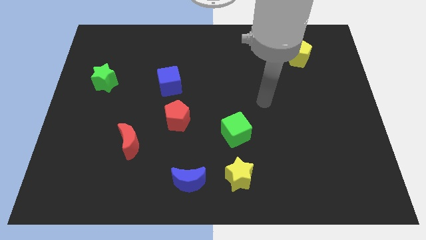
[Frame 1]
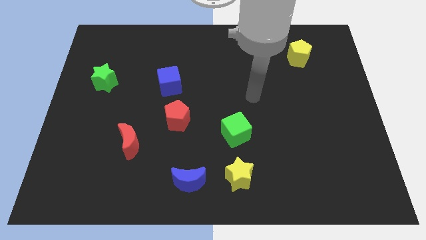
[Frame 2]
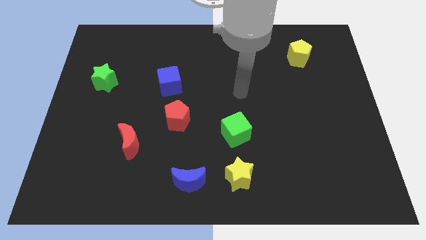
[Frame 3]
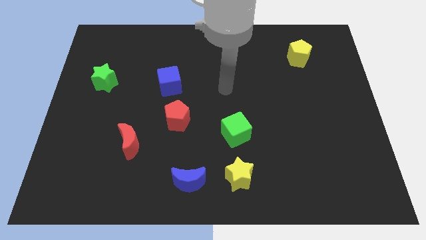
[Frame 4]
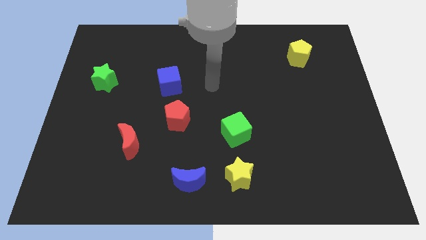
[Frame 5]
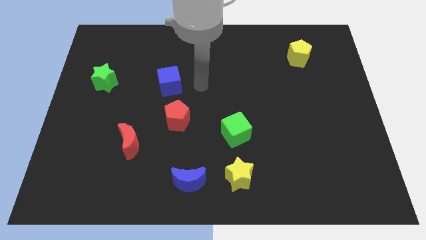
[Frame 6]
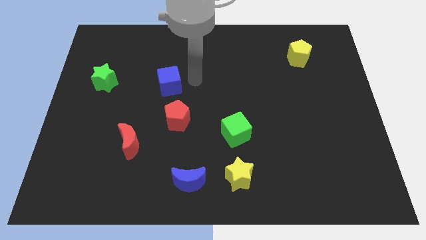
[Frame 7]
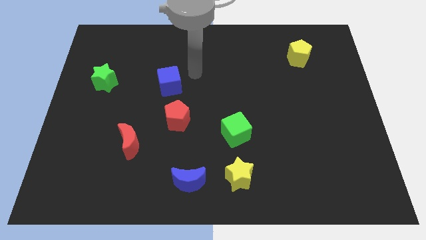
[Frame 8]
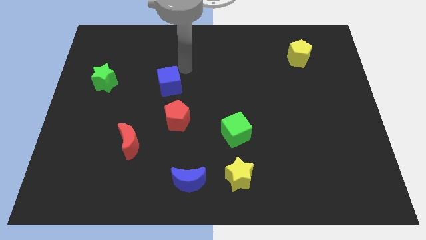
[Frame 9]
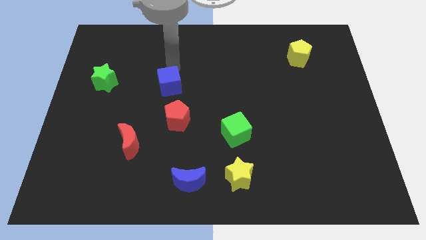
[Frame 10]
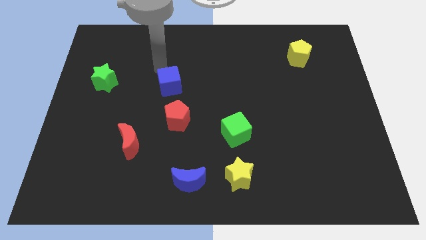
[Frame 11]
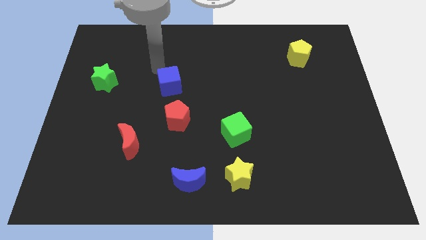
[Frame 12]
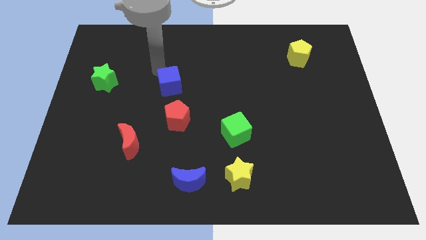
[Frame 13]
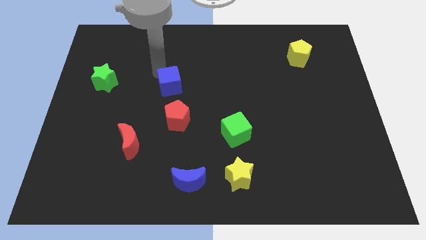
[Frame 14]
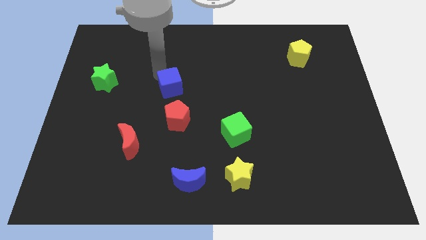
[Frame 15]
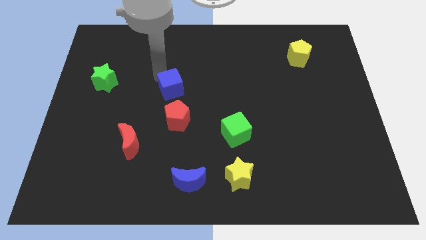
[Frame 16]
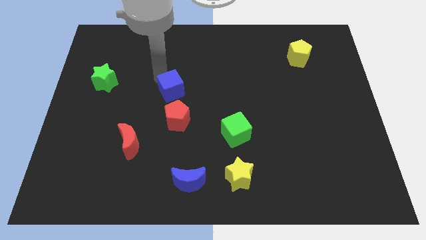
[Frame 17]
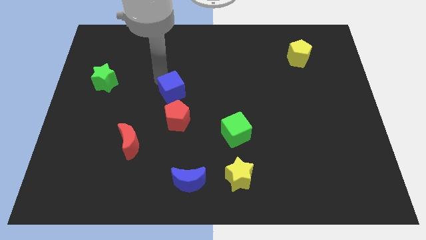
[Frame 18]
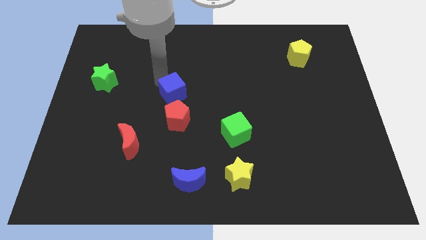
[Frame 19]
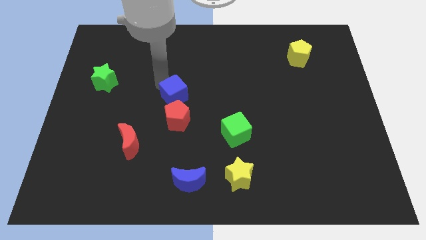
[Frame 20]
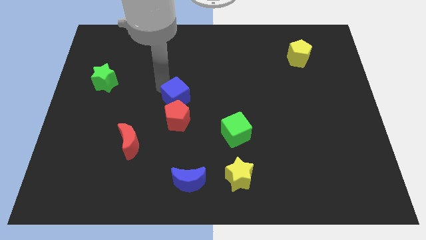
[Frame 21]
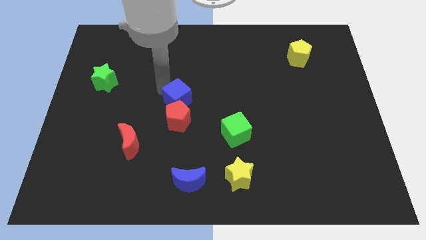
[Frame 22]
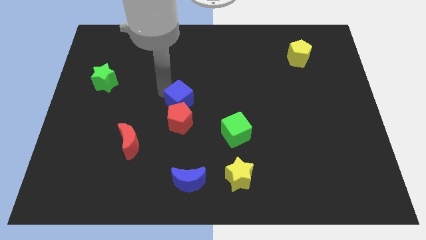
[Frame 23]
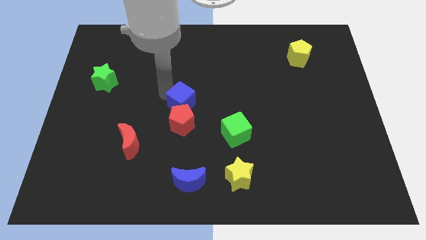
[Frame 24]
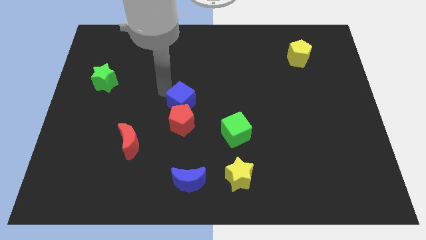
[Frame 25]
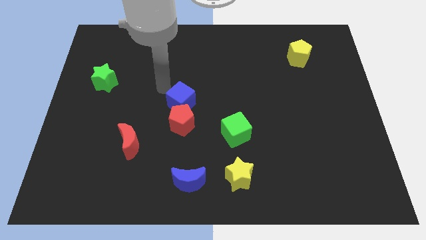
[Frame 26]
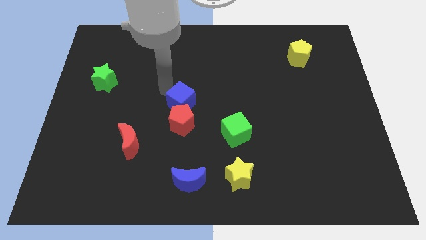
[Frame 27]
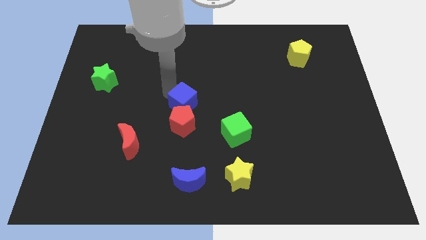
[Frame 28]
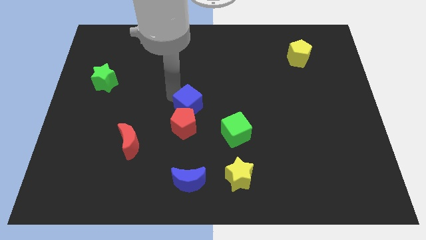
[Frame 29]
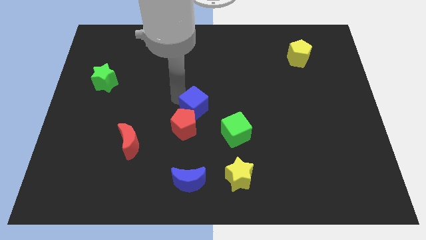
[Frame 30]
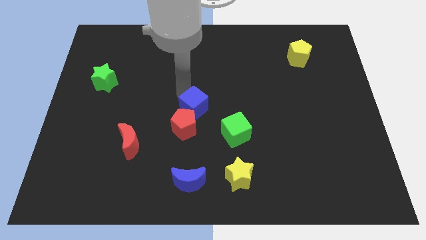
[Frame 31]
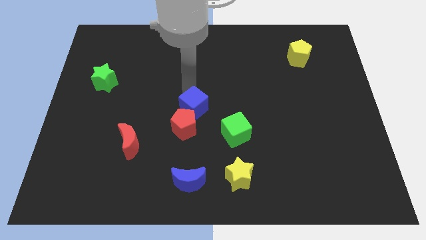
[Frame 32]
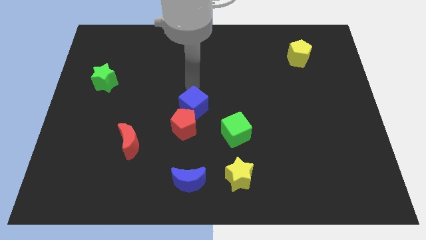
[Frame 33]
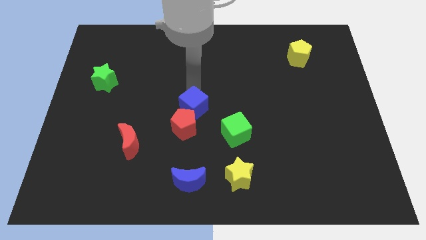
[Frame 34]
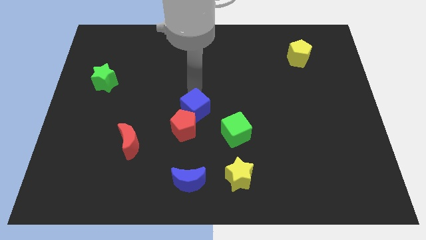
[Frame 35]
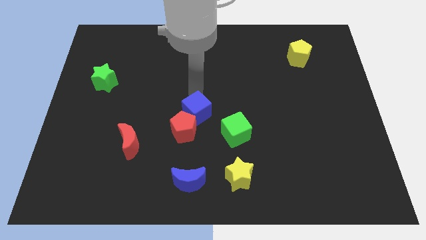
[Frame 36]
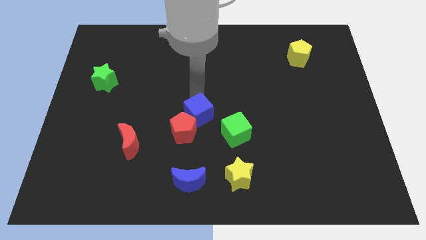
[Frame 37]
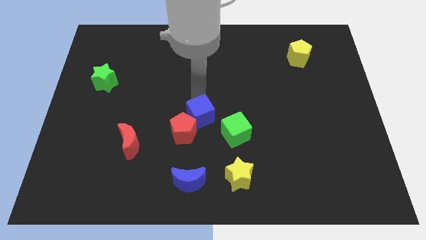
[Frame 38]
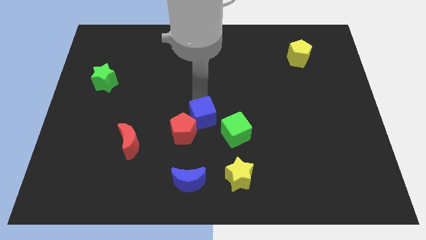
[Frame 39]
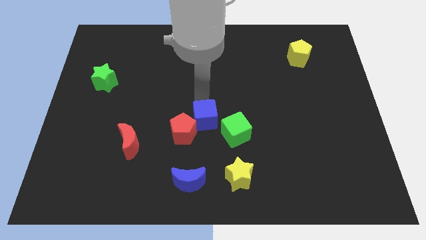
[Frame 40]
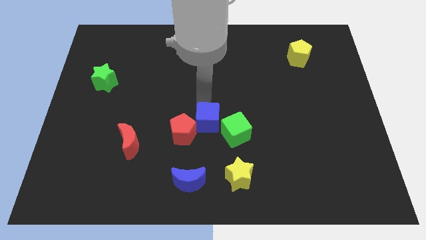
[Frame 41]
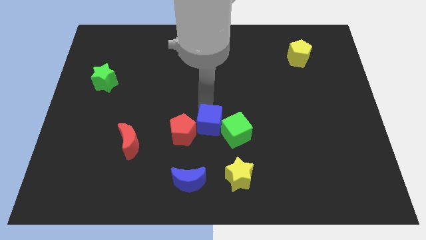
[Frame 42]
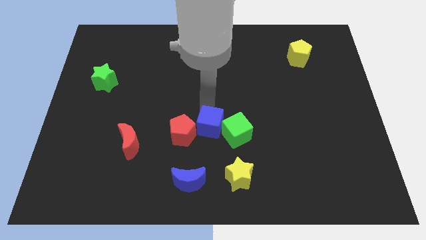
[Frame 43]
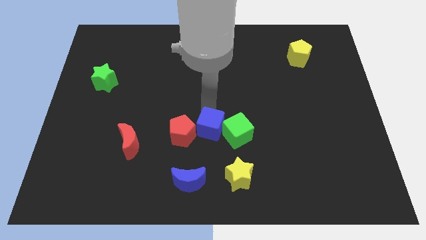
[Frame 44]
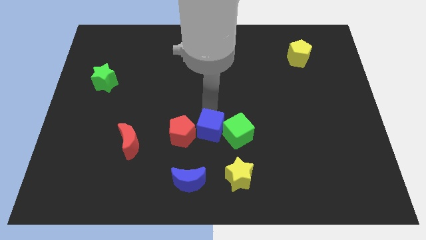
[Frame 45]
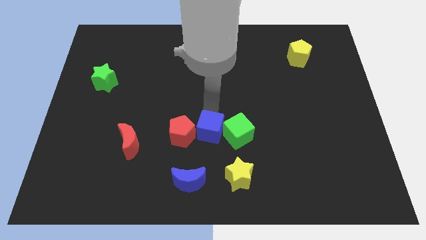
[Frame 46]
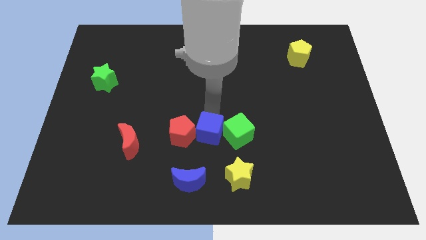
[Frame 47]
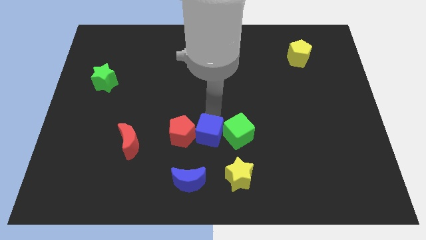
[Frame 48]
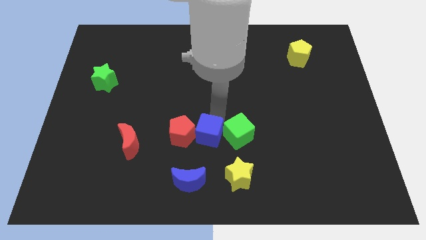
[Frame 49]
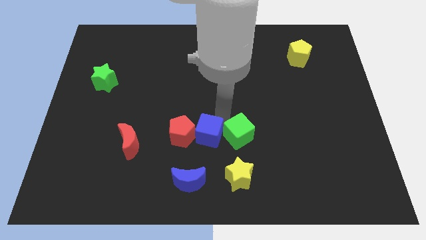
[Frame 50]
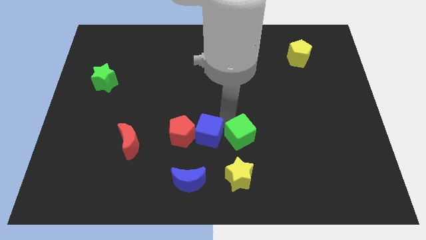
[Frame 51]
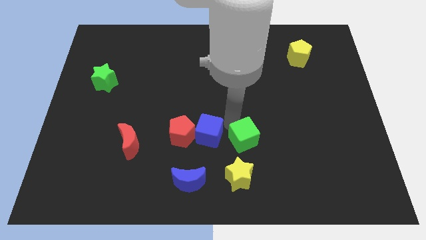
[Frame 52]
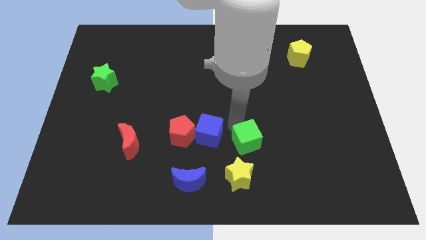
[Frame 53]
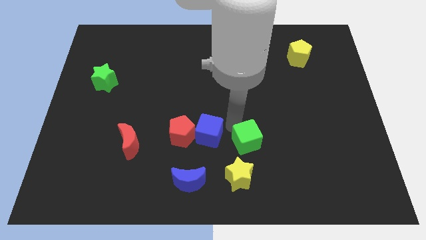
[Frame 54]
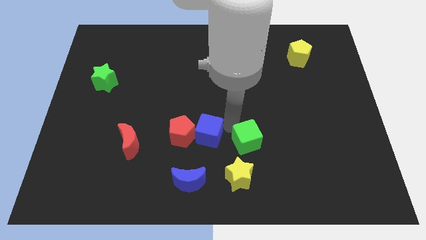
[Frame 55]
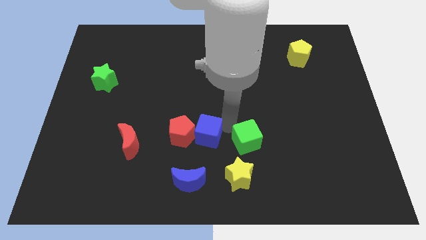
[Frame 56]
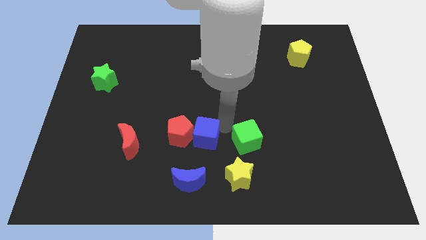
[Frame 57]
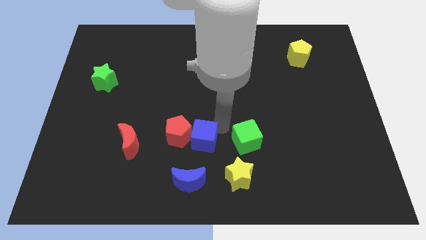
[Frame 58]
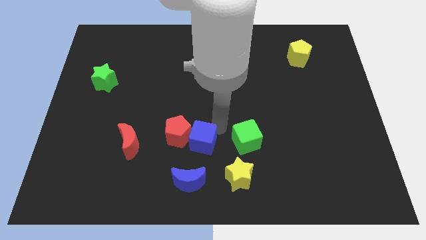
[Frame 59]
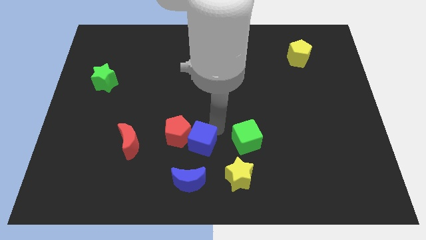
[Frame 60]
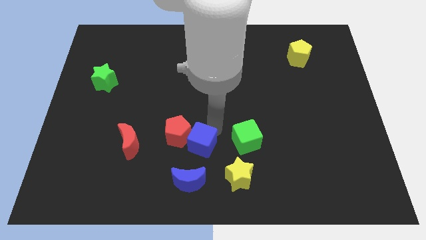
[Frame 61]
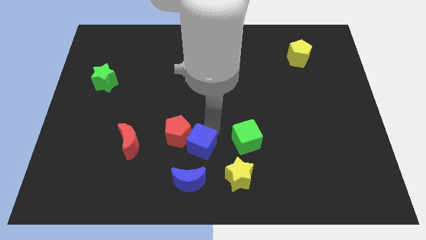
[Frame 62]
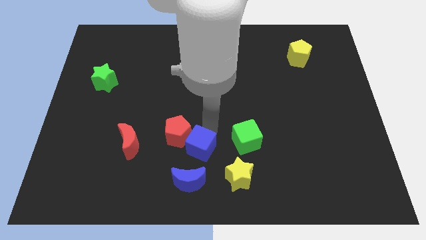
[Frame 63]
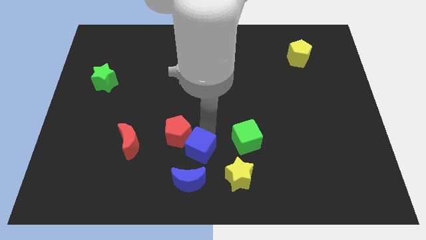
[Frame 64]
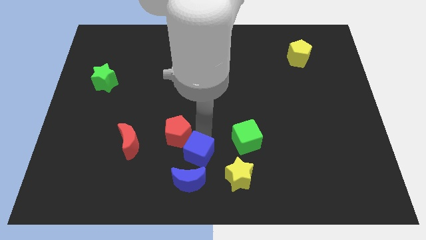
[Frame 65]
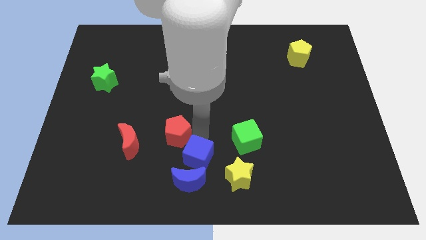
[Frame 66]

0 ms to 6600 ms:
slide the blue cube to the bottom

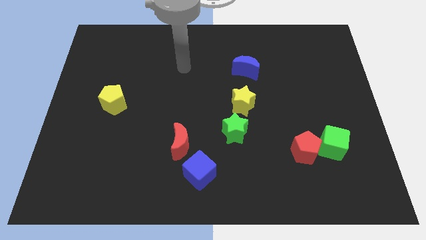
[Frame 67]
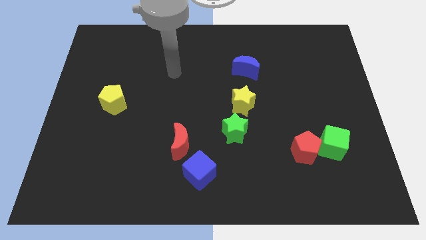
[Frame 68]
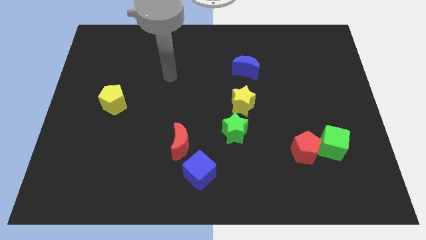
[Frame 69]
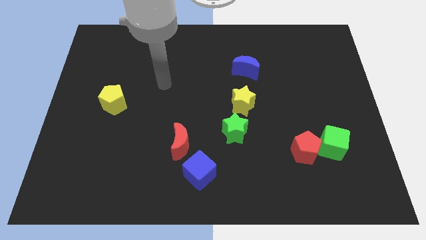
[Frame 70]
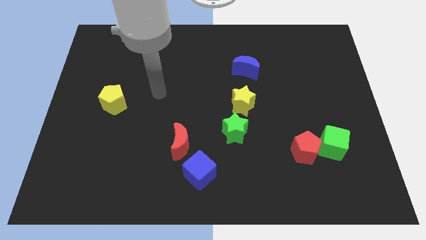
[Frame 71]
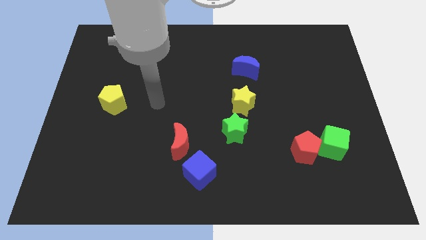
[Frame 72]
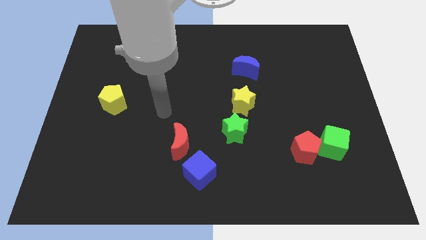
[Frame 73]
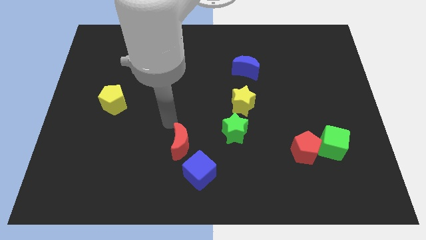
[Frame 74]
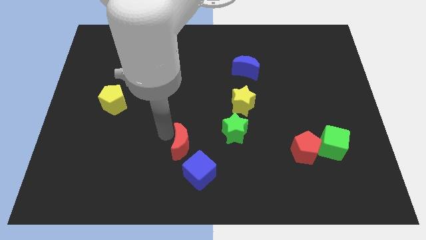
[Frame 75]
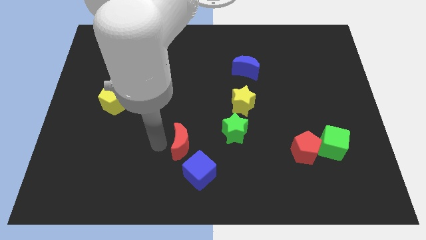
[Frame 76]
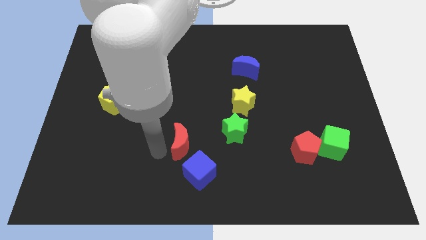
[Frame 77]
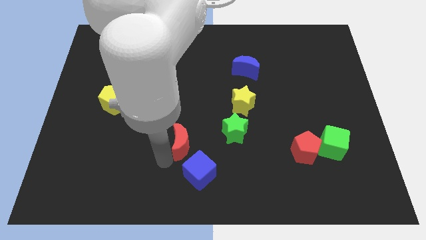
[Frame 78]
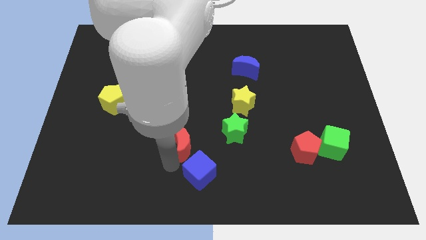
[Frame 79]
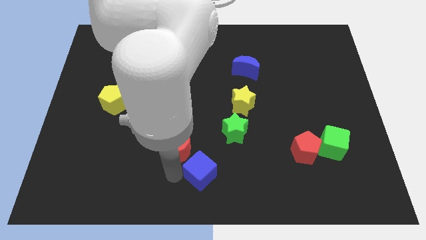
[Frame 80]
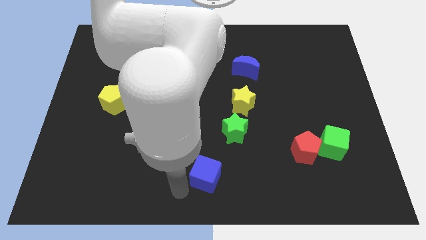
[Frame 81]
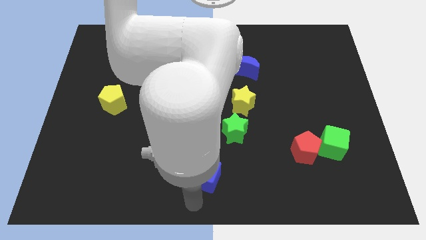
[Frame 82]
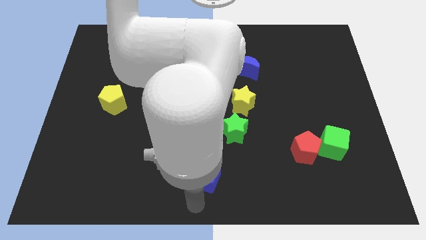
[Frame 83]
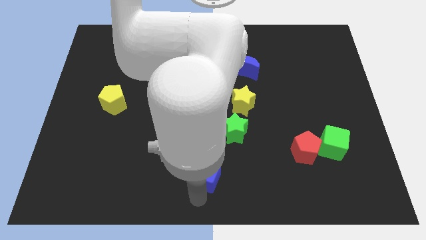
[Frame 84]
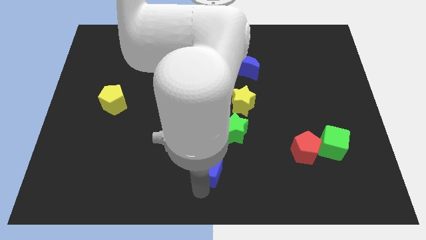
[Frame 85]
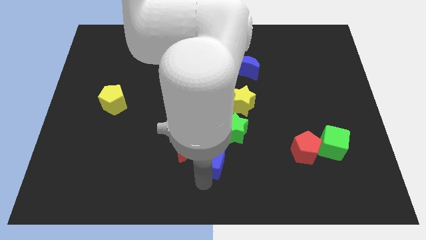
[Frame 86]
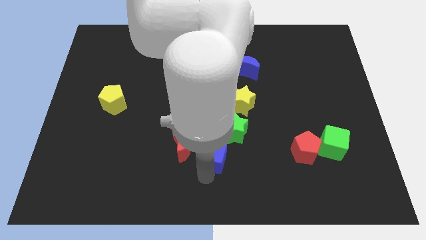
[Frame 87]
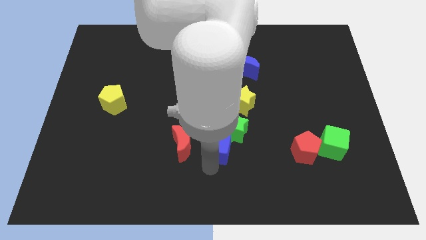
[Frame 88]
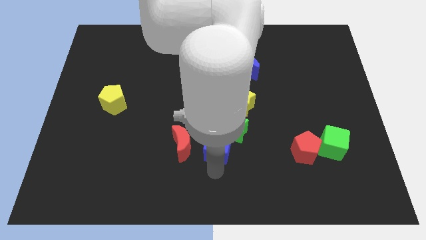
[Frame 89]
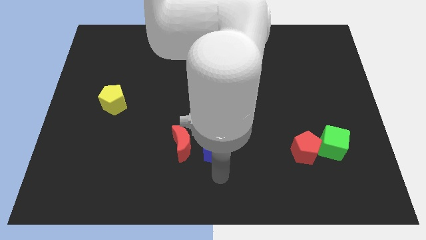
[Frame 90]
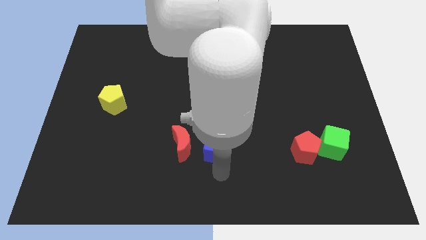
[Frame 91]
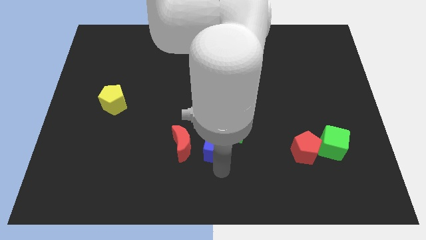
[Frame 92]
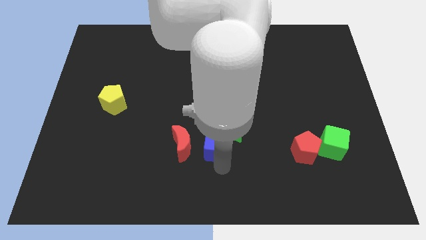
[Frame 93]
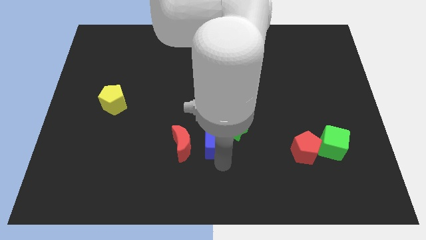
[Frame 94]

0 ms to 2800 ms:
push the blue cube to the center
